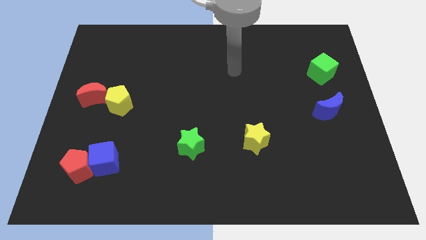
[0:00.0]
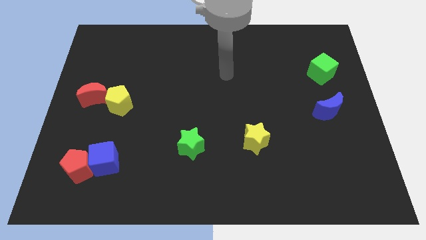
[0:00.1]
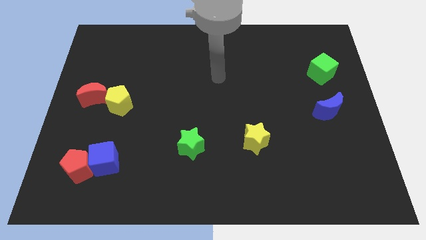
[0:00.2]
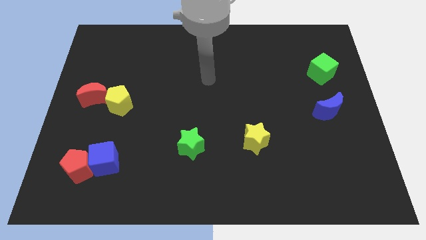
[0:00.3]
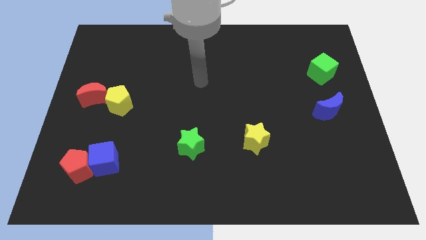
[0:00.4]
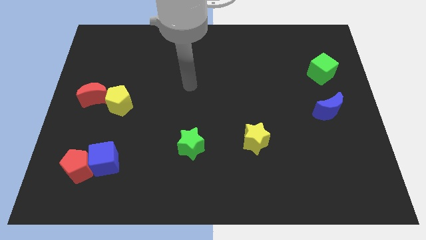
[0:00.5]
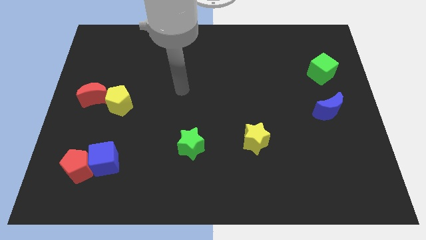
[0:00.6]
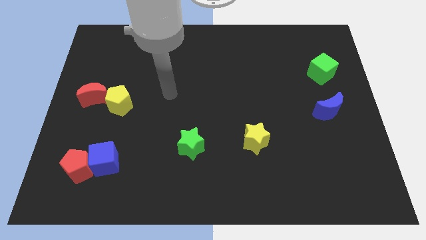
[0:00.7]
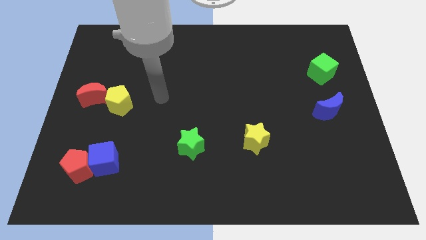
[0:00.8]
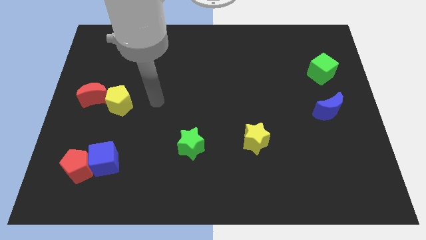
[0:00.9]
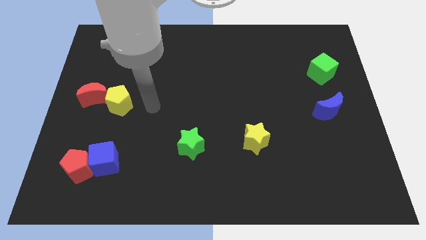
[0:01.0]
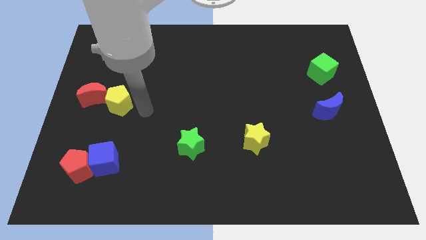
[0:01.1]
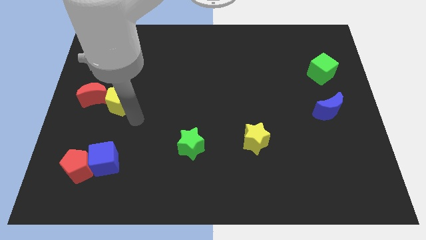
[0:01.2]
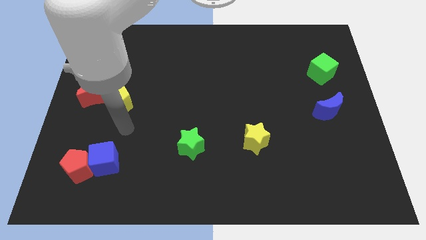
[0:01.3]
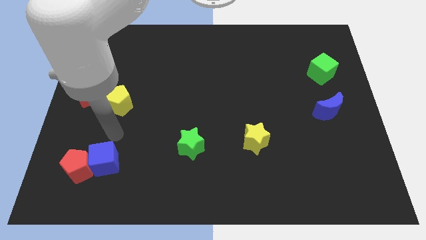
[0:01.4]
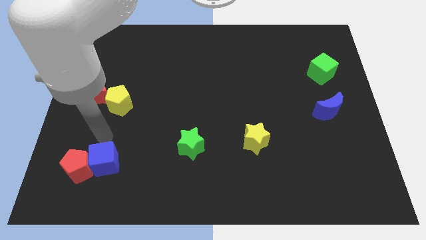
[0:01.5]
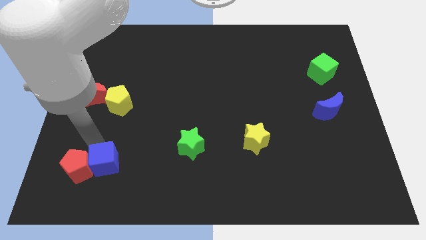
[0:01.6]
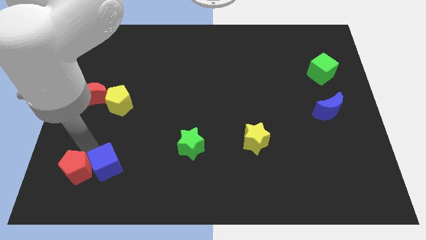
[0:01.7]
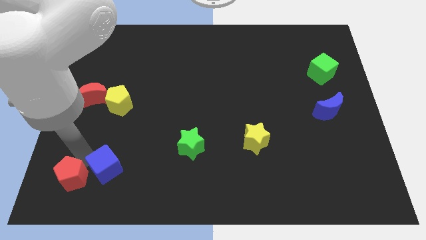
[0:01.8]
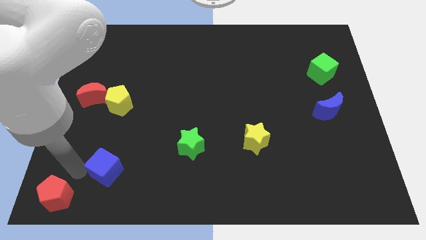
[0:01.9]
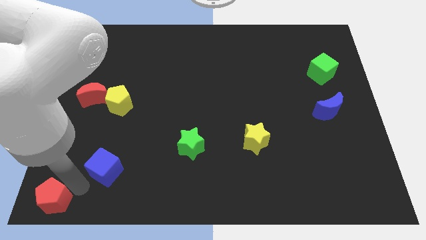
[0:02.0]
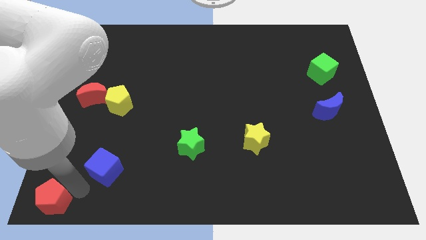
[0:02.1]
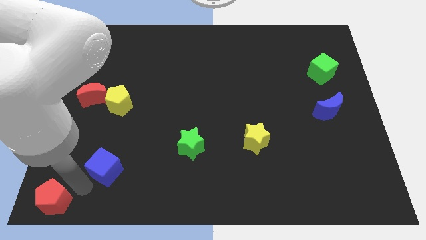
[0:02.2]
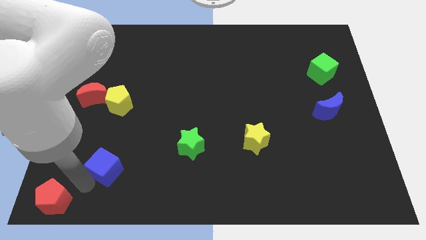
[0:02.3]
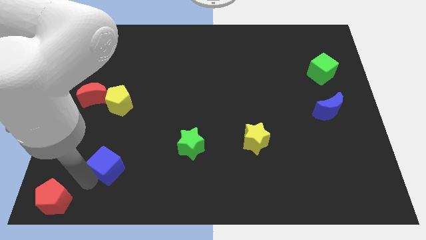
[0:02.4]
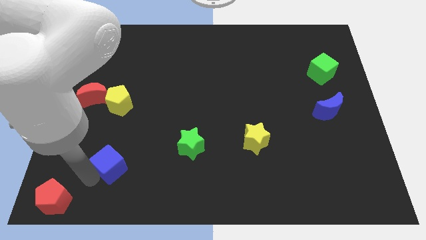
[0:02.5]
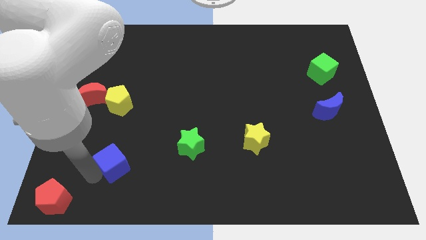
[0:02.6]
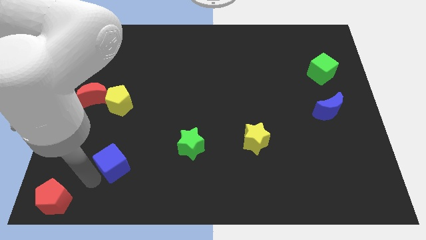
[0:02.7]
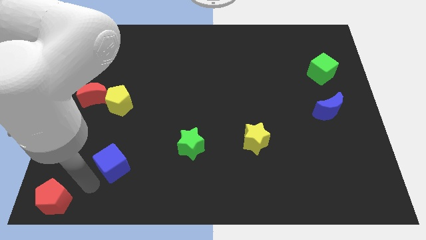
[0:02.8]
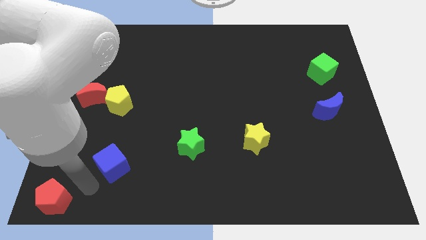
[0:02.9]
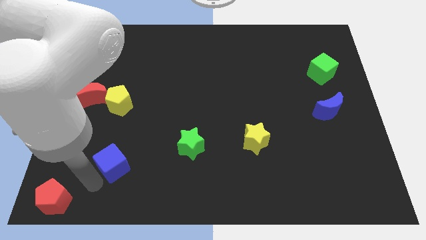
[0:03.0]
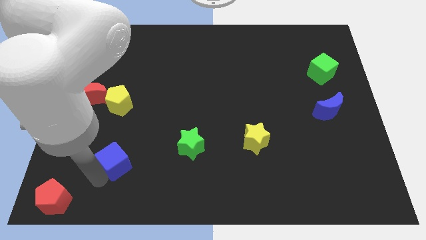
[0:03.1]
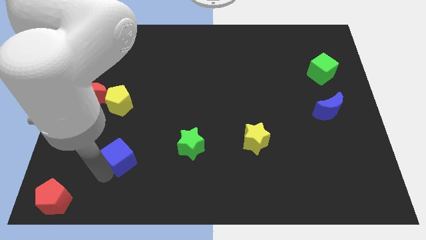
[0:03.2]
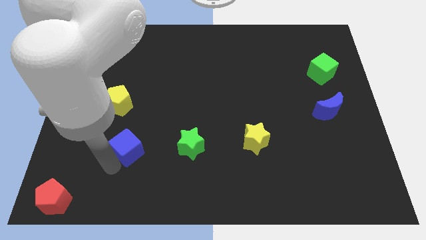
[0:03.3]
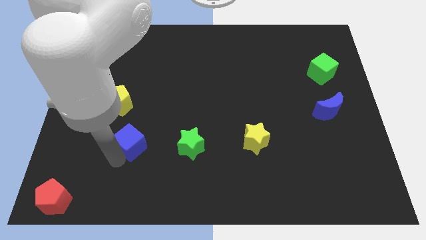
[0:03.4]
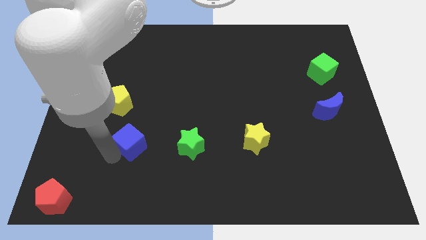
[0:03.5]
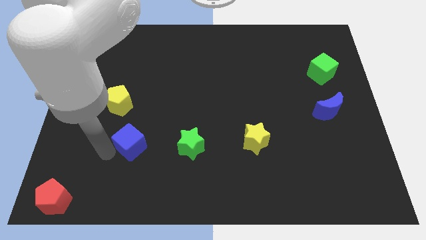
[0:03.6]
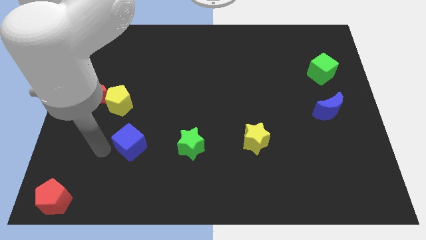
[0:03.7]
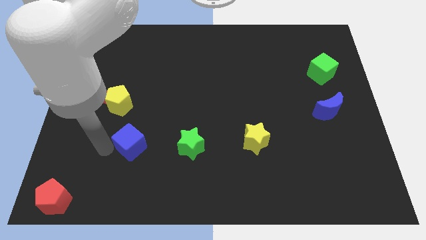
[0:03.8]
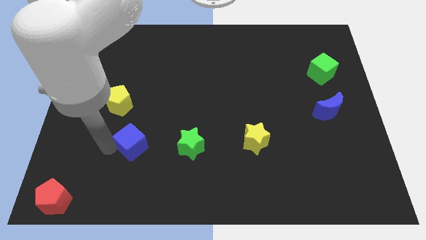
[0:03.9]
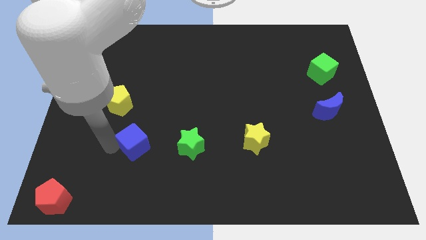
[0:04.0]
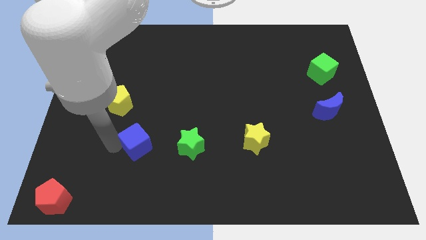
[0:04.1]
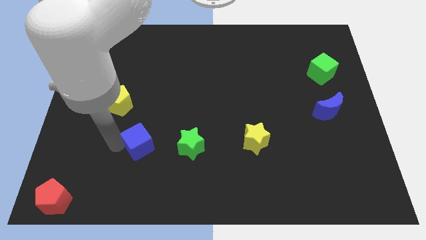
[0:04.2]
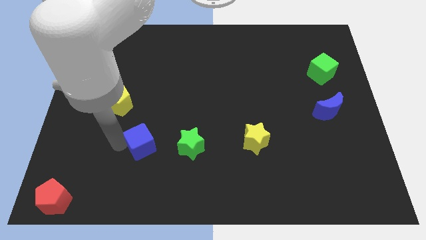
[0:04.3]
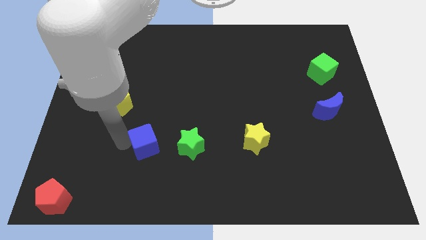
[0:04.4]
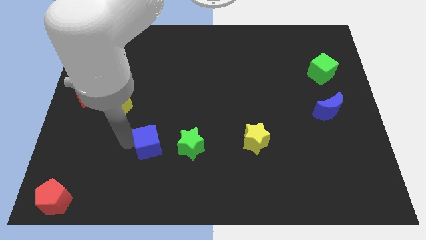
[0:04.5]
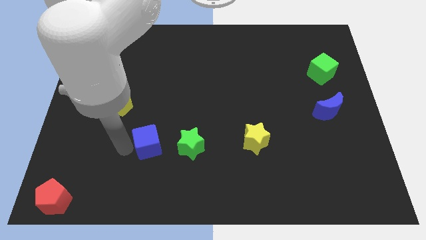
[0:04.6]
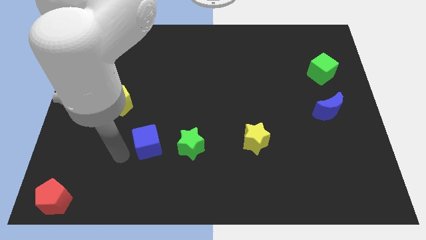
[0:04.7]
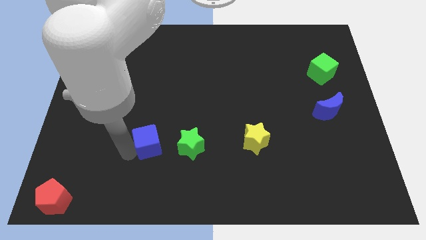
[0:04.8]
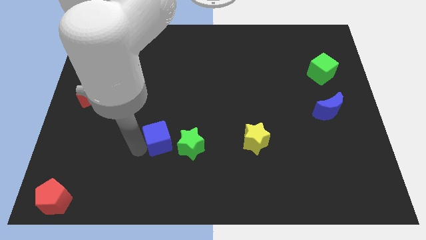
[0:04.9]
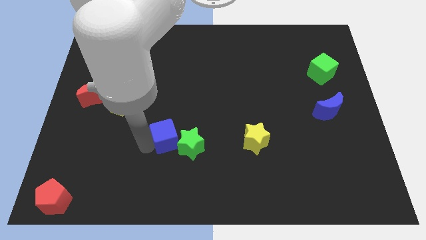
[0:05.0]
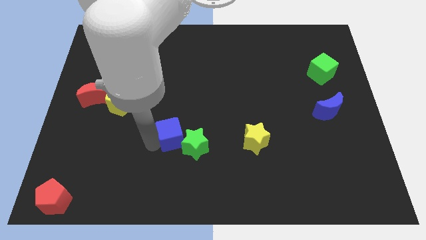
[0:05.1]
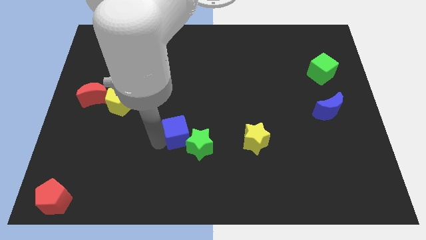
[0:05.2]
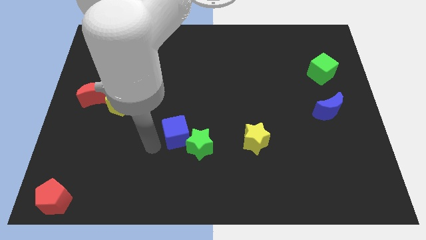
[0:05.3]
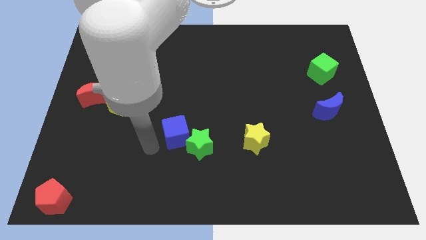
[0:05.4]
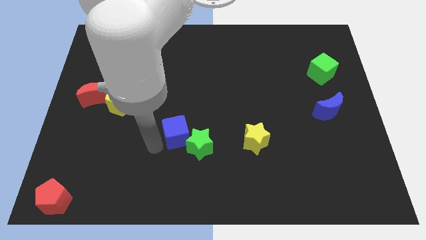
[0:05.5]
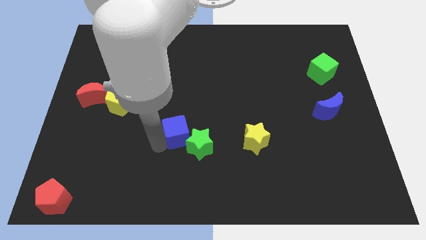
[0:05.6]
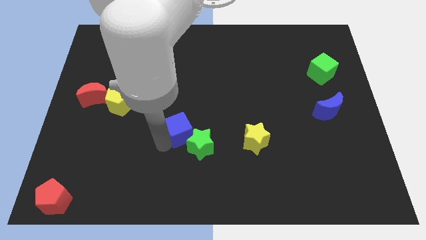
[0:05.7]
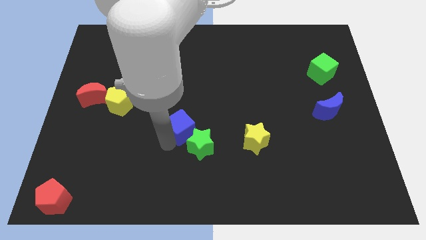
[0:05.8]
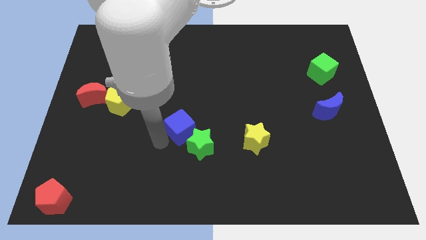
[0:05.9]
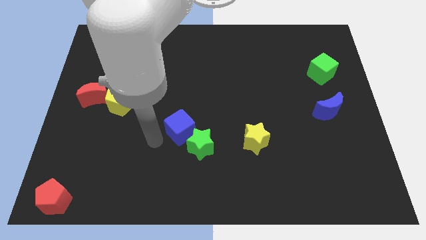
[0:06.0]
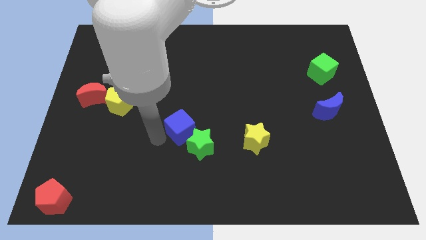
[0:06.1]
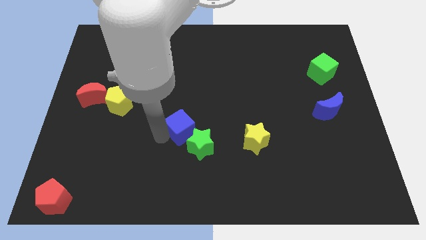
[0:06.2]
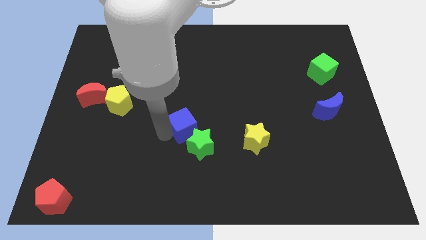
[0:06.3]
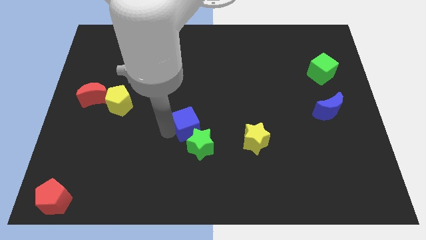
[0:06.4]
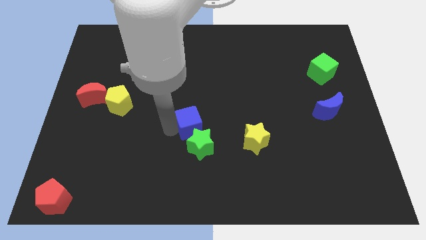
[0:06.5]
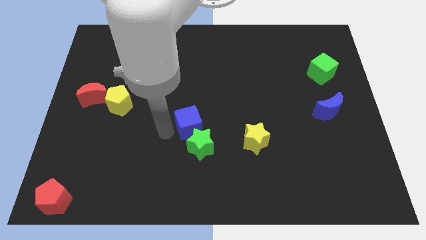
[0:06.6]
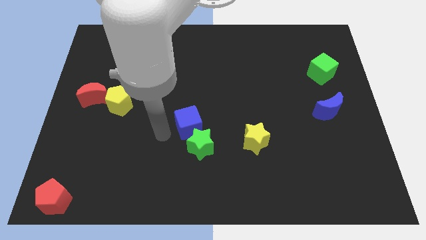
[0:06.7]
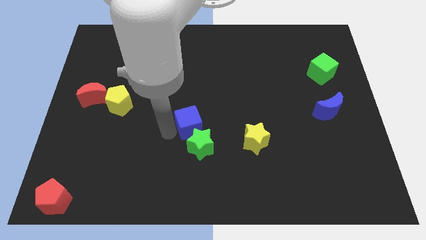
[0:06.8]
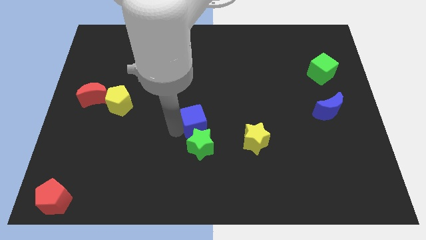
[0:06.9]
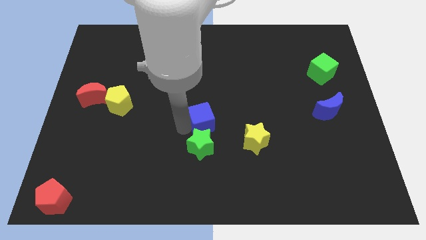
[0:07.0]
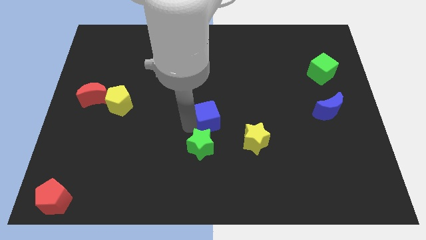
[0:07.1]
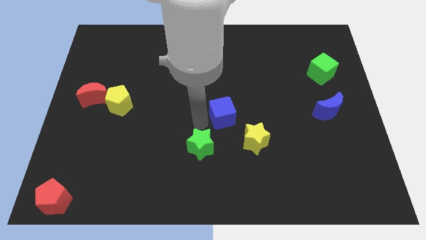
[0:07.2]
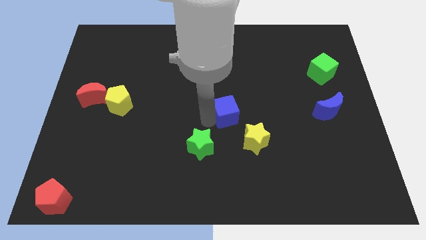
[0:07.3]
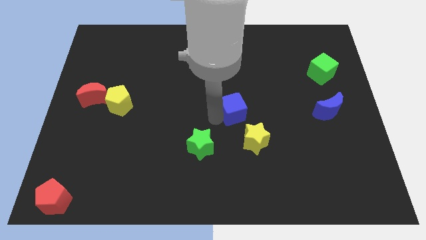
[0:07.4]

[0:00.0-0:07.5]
move the blue cube above the yellow star
